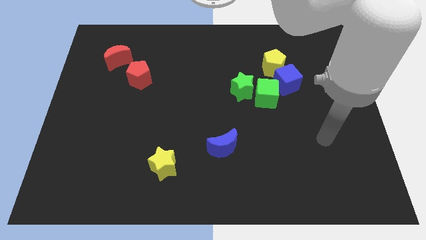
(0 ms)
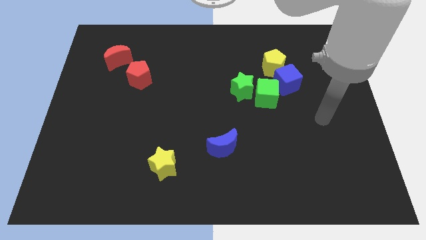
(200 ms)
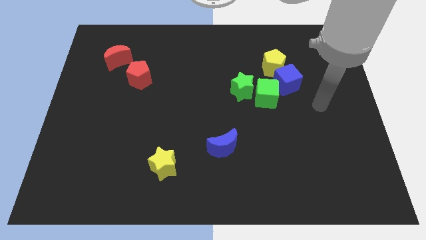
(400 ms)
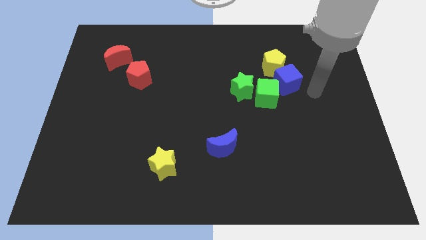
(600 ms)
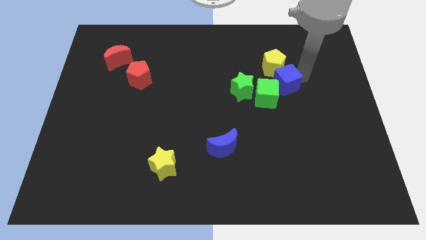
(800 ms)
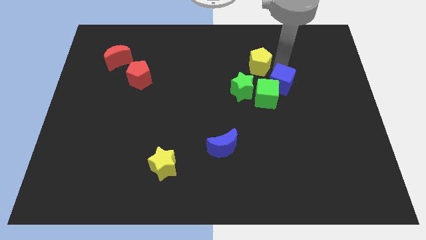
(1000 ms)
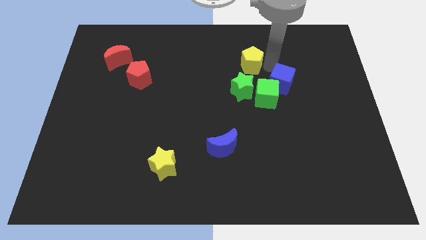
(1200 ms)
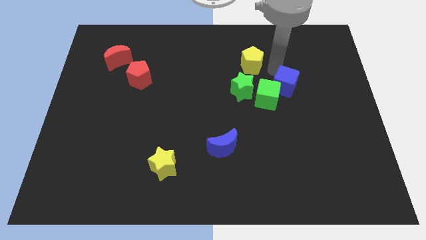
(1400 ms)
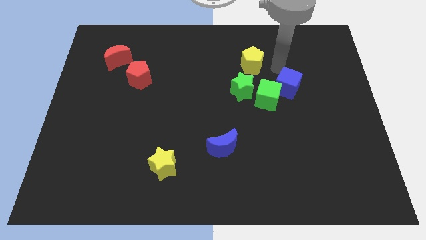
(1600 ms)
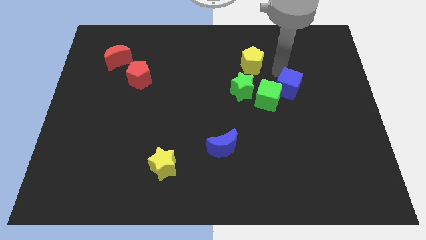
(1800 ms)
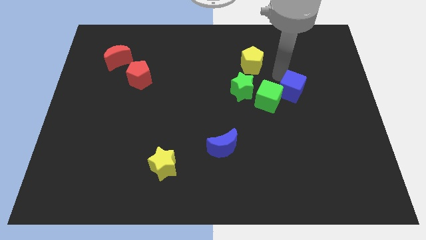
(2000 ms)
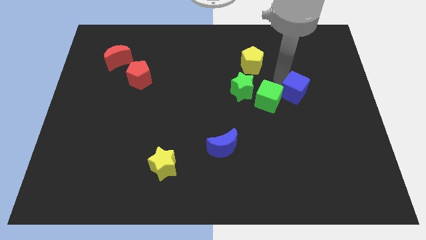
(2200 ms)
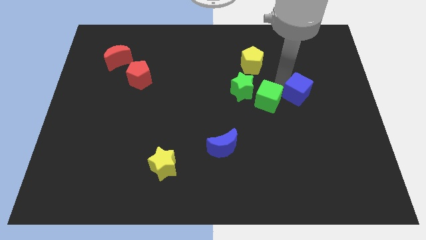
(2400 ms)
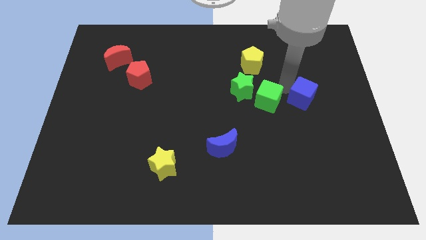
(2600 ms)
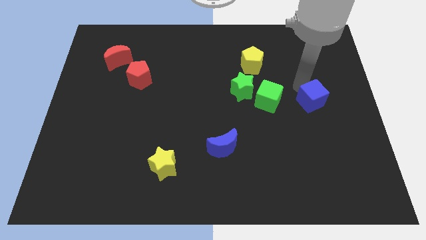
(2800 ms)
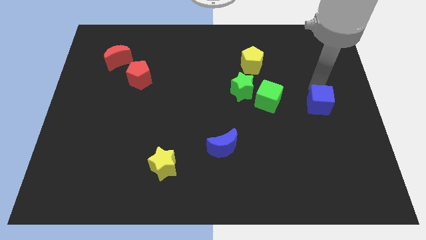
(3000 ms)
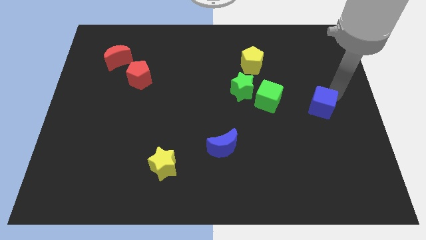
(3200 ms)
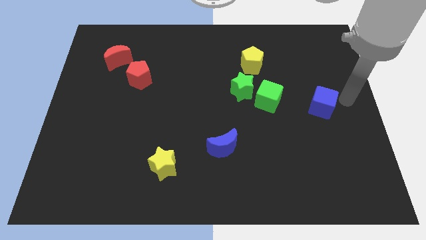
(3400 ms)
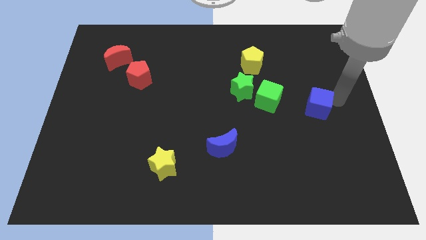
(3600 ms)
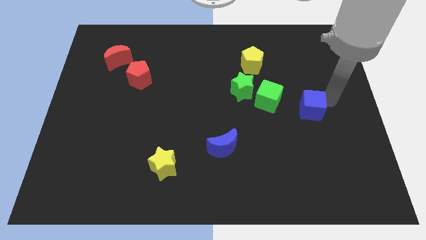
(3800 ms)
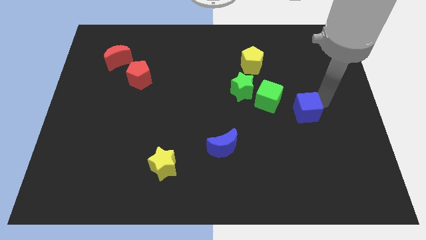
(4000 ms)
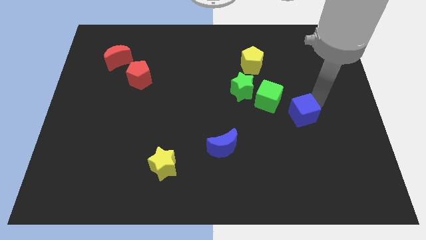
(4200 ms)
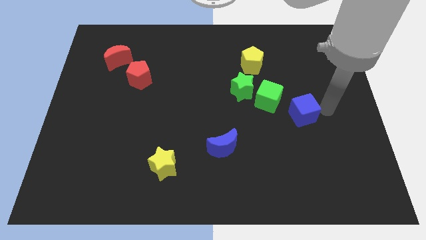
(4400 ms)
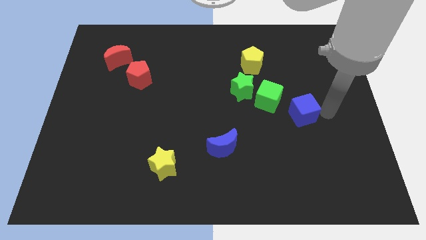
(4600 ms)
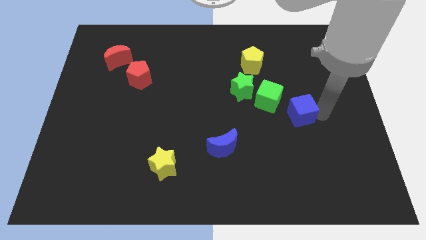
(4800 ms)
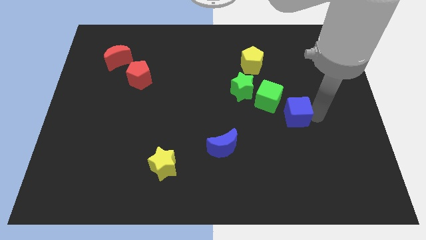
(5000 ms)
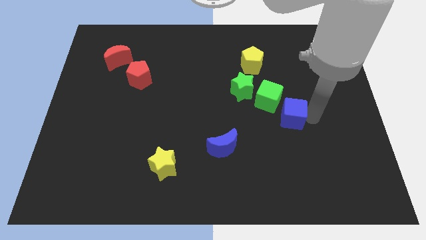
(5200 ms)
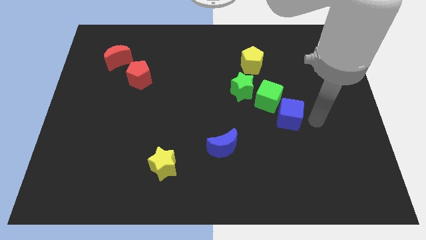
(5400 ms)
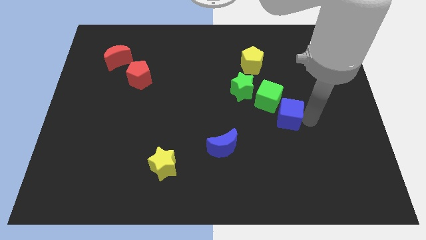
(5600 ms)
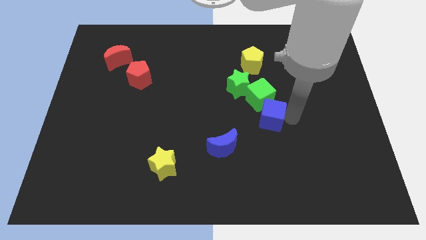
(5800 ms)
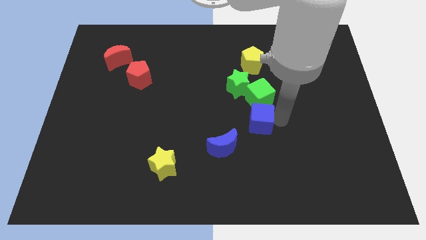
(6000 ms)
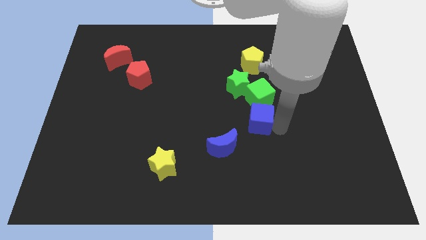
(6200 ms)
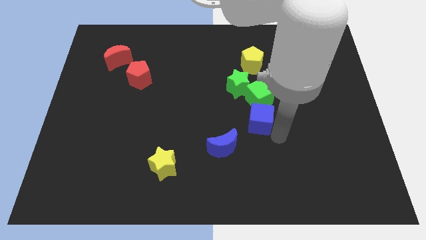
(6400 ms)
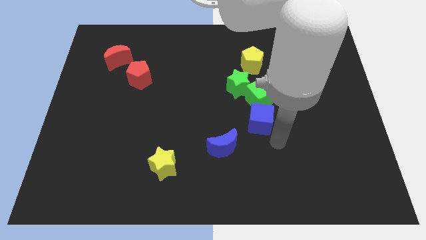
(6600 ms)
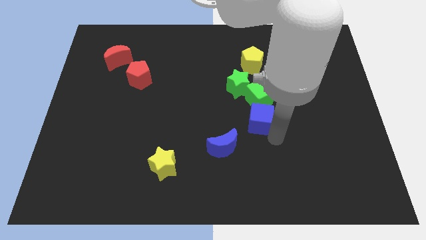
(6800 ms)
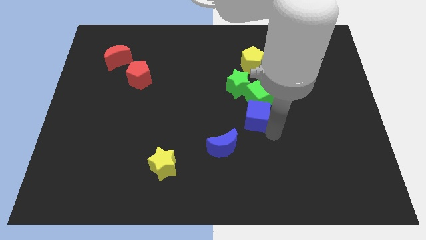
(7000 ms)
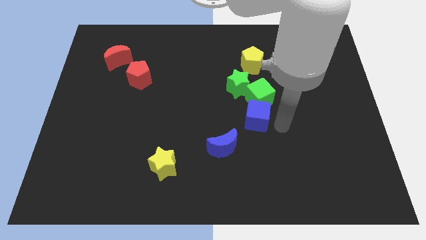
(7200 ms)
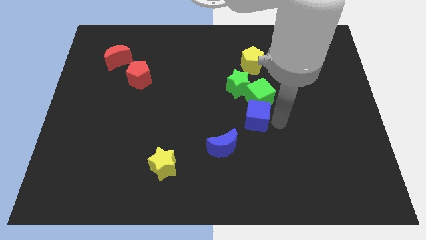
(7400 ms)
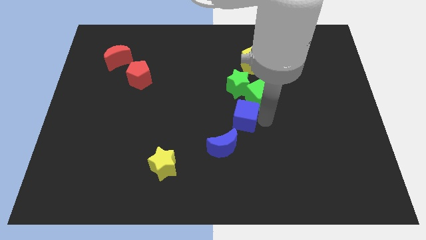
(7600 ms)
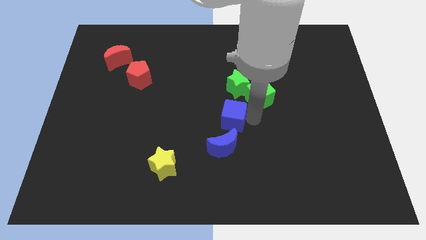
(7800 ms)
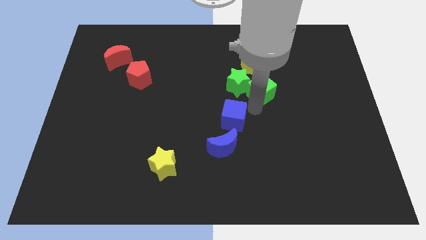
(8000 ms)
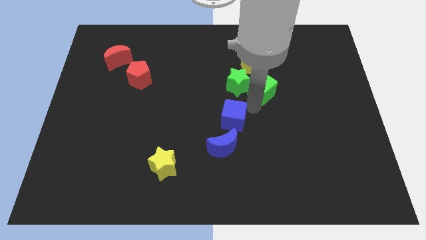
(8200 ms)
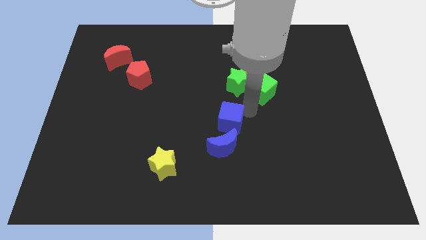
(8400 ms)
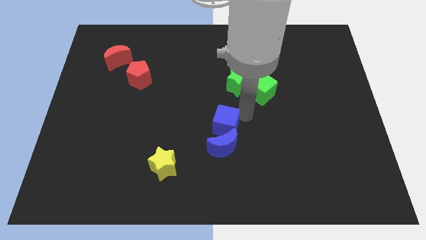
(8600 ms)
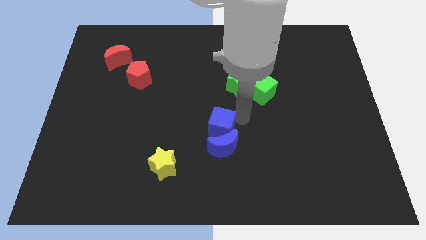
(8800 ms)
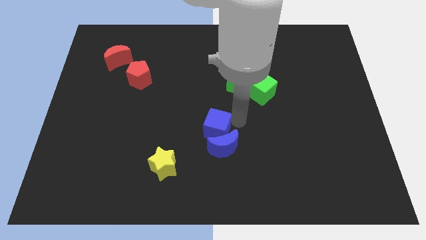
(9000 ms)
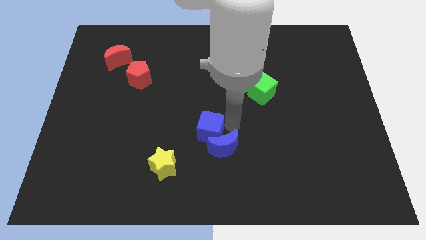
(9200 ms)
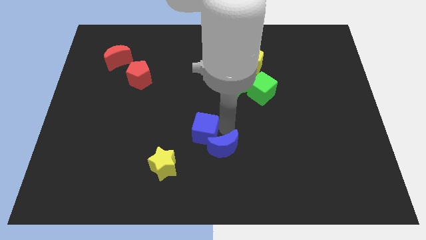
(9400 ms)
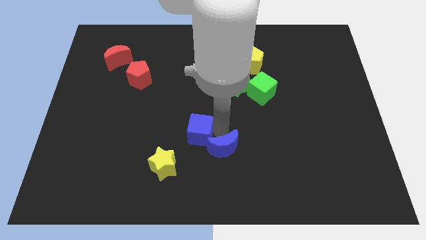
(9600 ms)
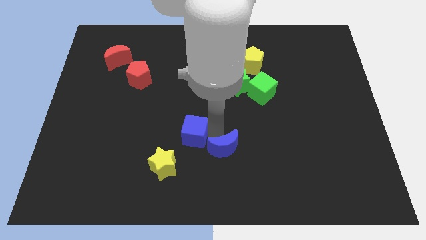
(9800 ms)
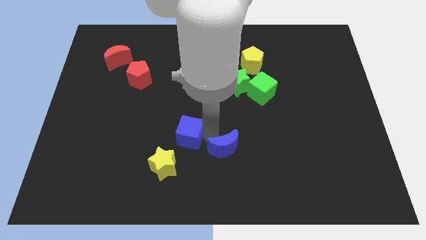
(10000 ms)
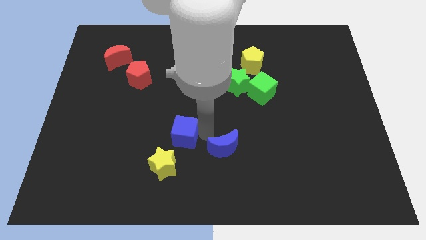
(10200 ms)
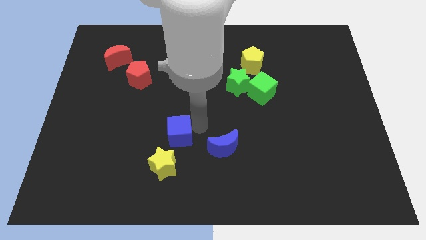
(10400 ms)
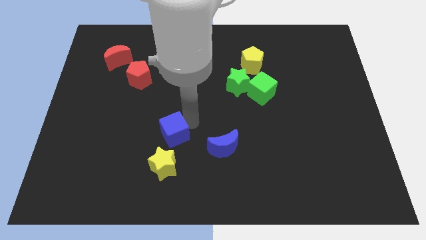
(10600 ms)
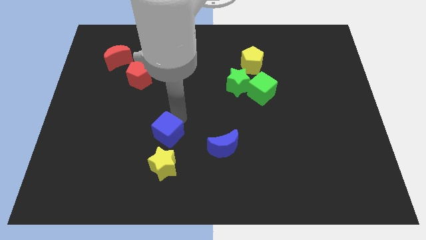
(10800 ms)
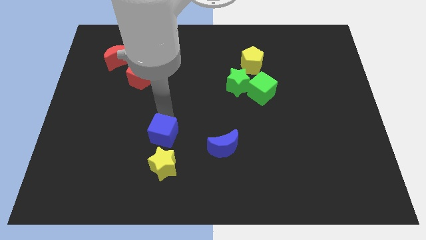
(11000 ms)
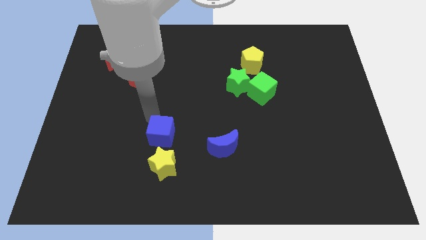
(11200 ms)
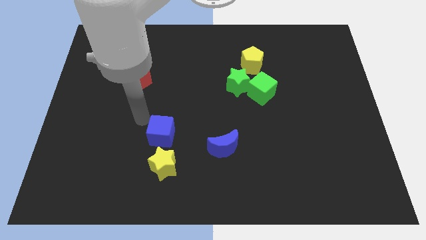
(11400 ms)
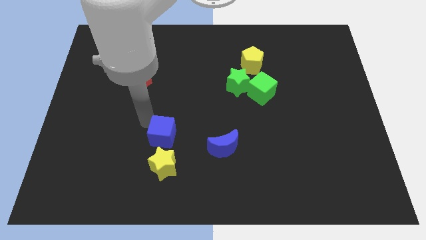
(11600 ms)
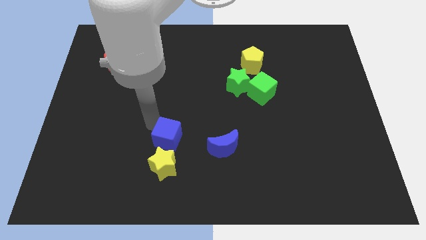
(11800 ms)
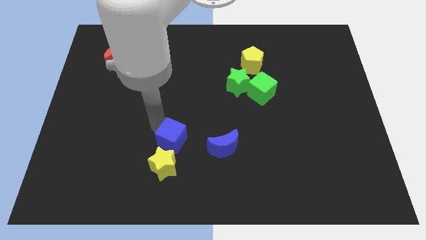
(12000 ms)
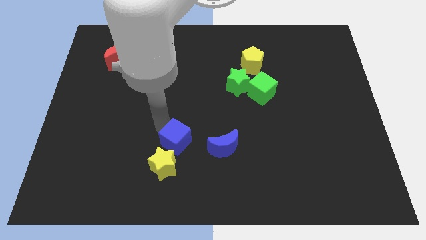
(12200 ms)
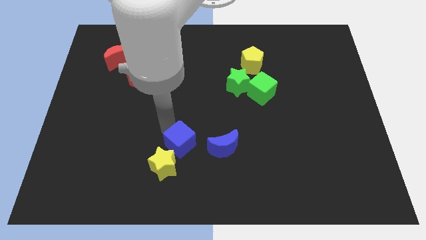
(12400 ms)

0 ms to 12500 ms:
slide the blue cube towards the yellow star
